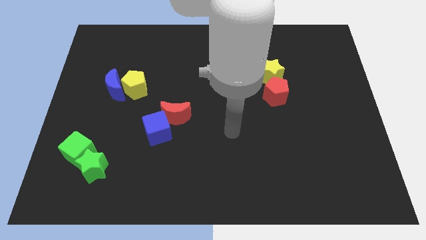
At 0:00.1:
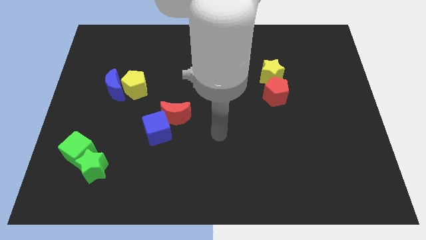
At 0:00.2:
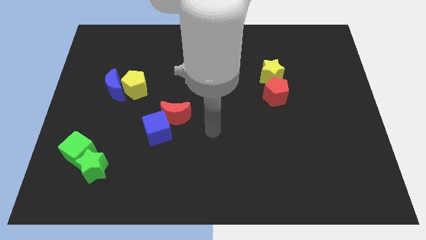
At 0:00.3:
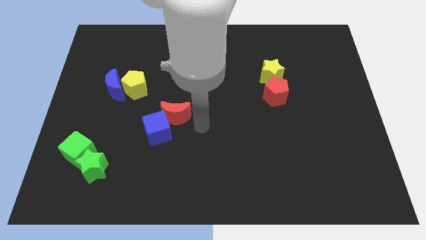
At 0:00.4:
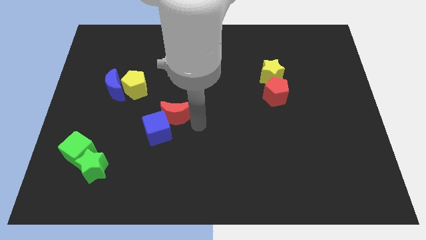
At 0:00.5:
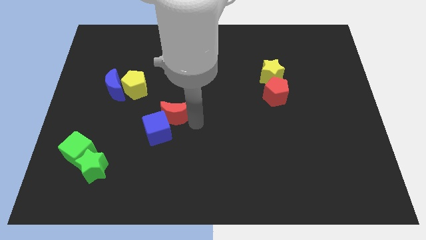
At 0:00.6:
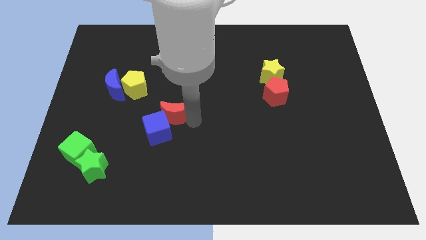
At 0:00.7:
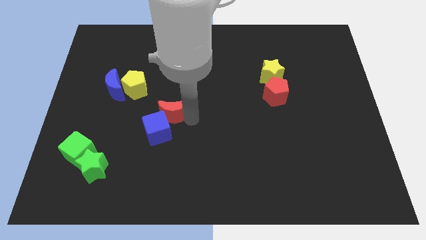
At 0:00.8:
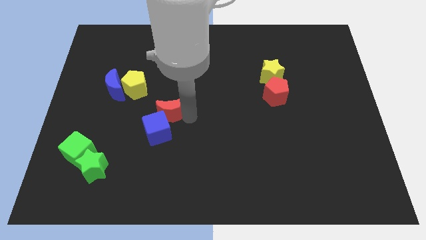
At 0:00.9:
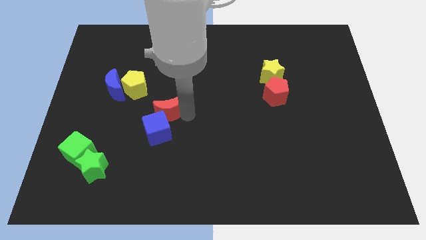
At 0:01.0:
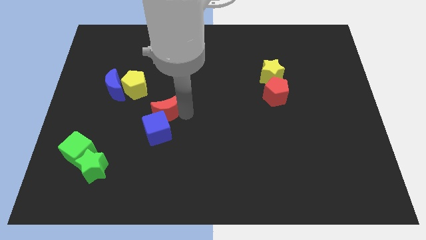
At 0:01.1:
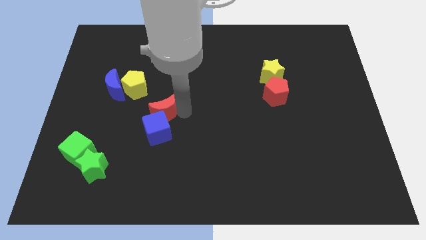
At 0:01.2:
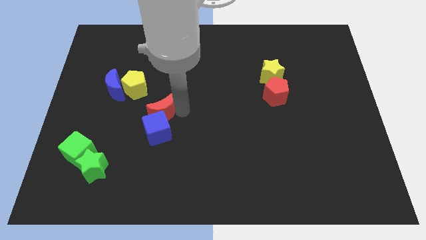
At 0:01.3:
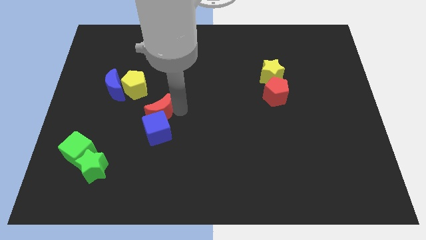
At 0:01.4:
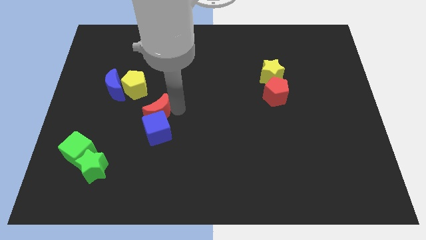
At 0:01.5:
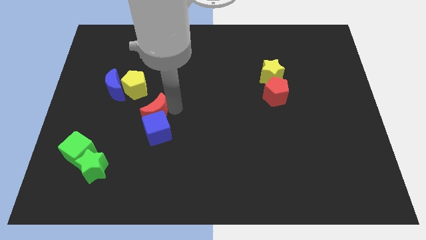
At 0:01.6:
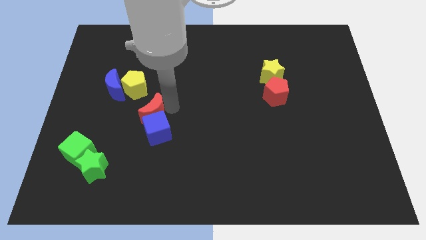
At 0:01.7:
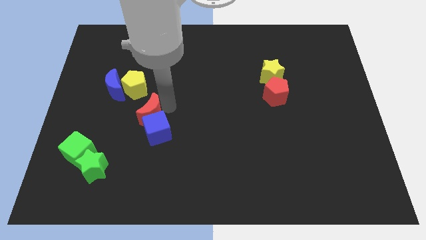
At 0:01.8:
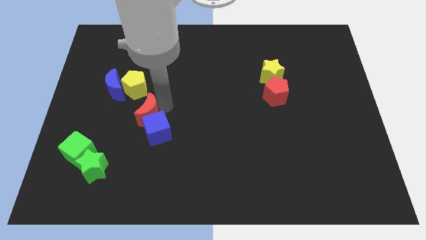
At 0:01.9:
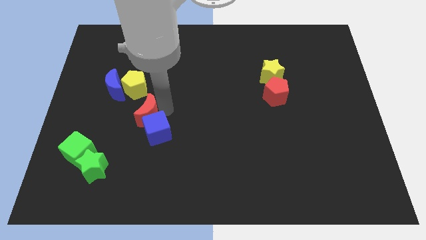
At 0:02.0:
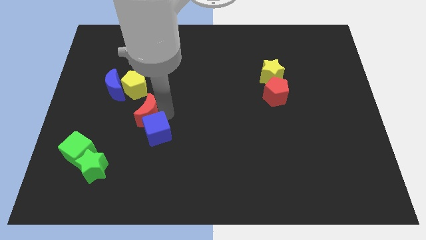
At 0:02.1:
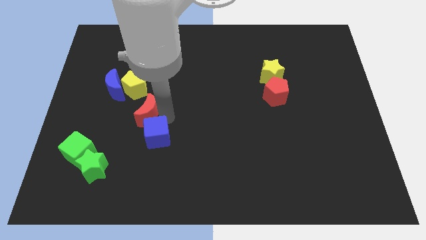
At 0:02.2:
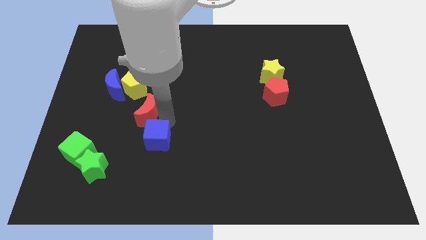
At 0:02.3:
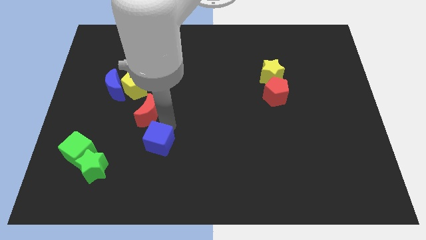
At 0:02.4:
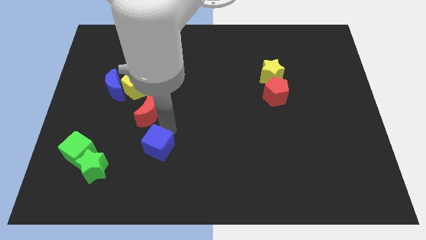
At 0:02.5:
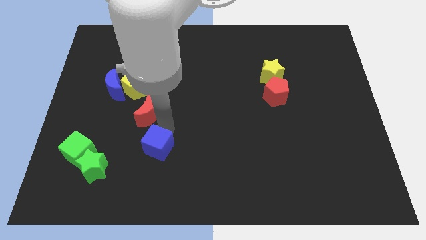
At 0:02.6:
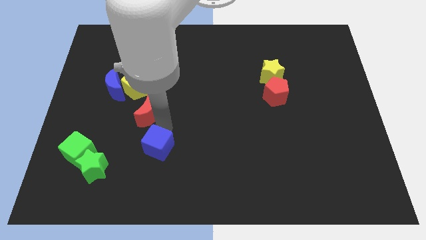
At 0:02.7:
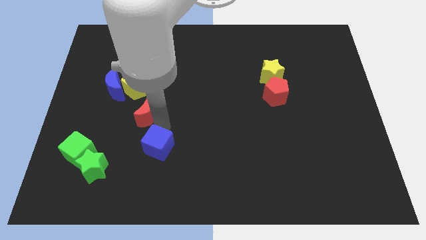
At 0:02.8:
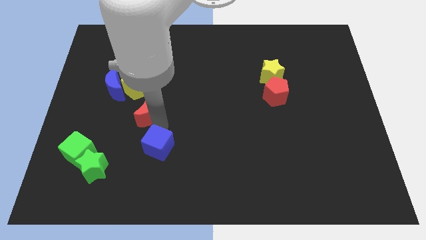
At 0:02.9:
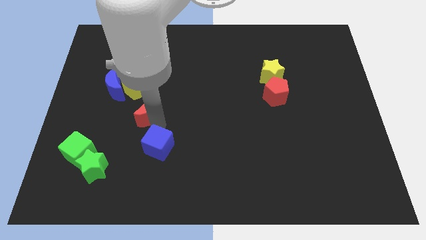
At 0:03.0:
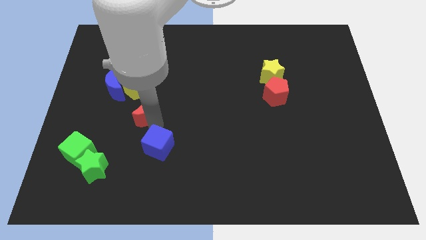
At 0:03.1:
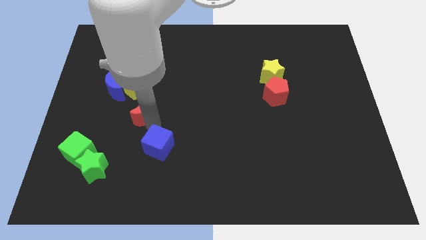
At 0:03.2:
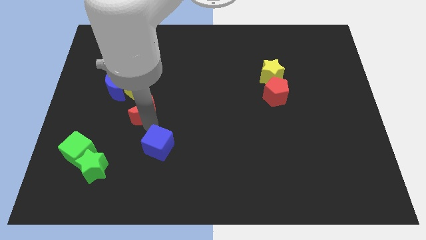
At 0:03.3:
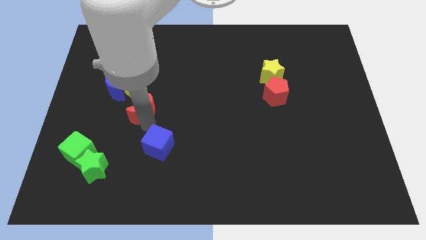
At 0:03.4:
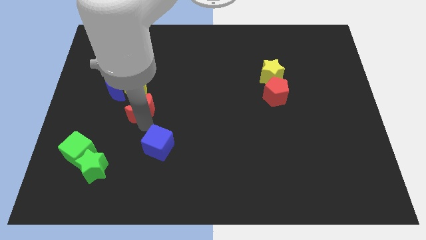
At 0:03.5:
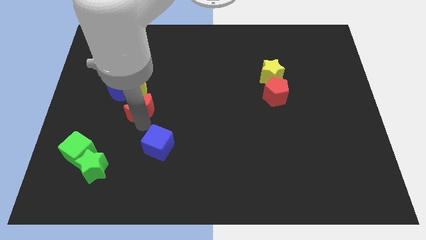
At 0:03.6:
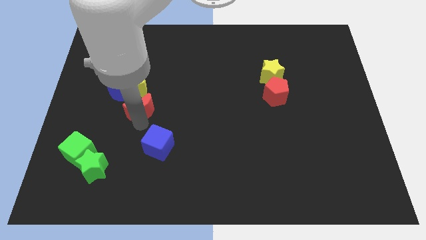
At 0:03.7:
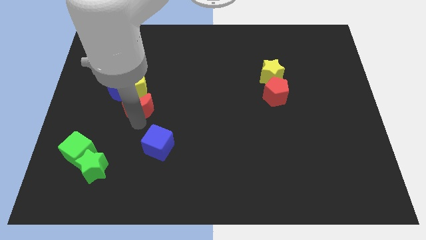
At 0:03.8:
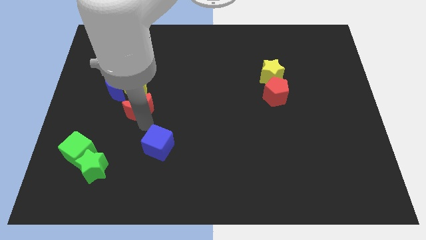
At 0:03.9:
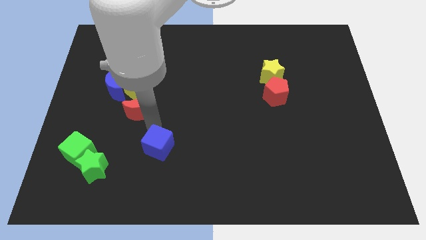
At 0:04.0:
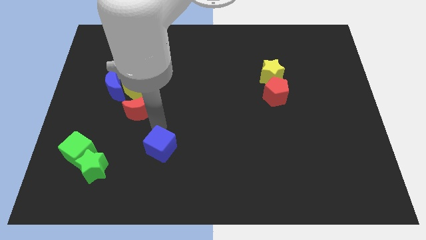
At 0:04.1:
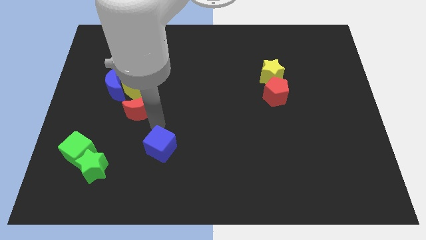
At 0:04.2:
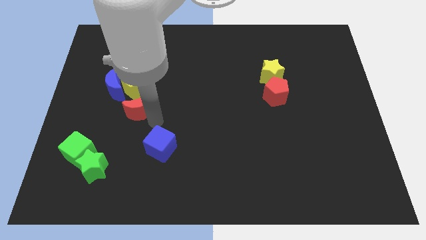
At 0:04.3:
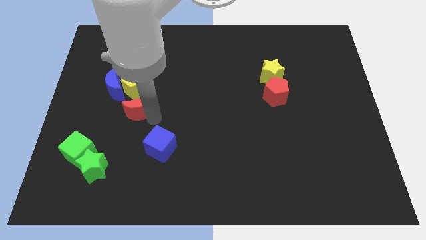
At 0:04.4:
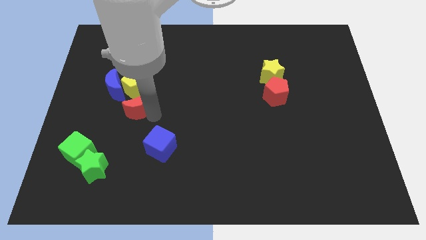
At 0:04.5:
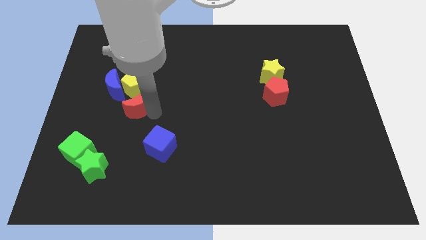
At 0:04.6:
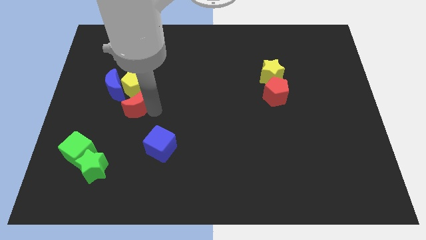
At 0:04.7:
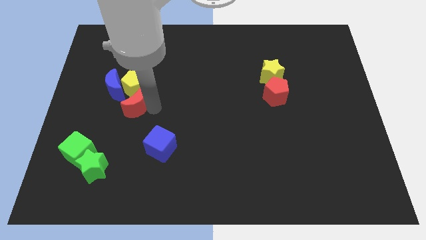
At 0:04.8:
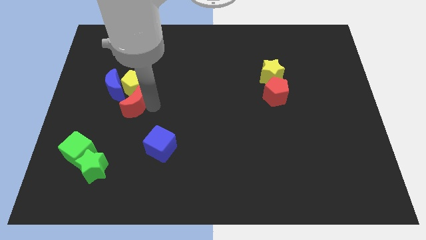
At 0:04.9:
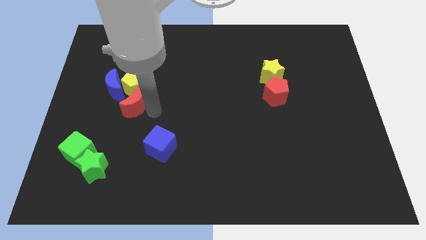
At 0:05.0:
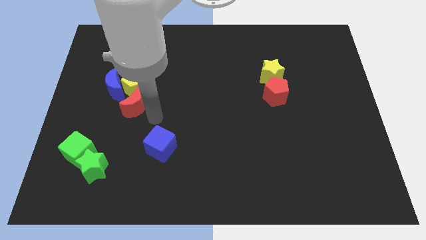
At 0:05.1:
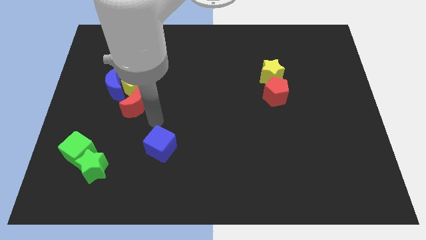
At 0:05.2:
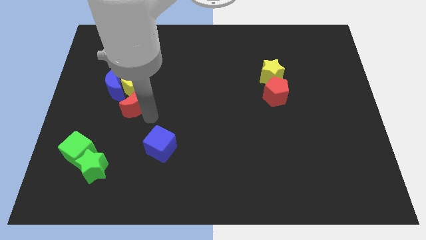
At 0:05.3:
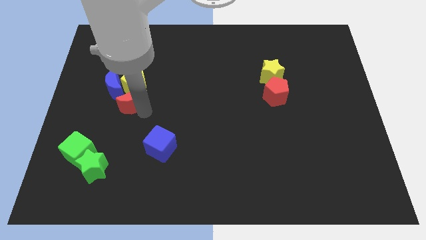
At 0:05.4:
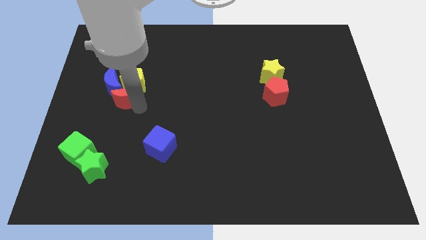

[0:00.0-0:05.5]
slide the red moon close to the blue moon

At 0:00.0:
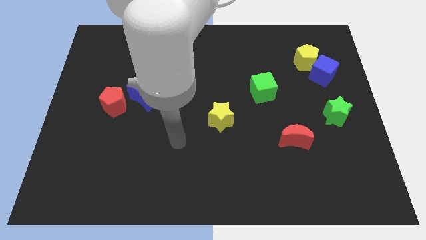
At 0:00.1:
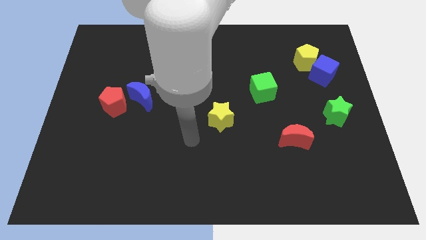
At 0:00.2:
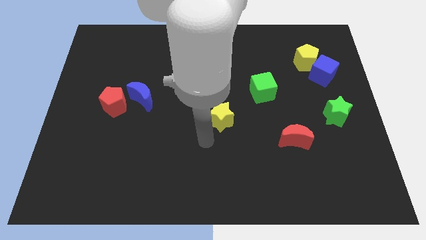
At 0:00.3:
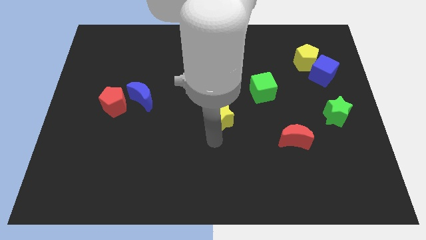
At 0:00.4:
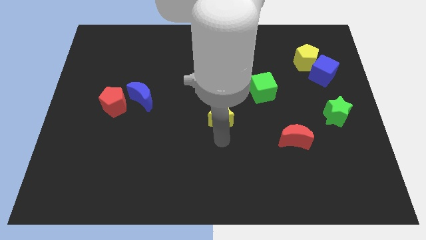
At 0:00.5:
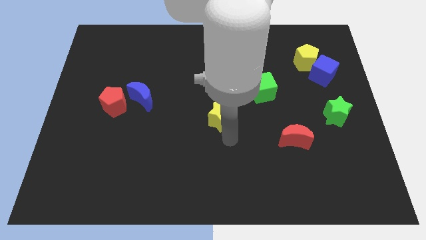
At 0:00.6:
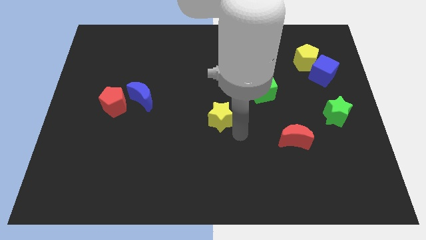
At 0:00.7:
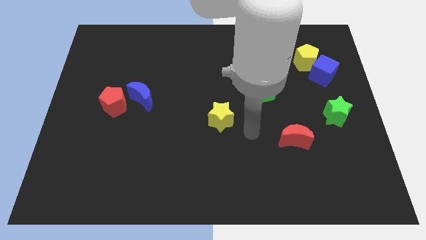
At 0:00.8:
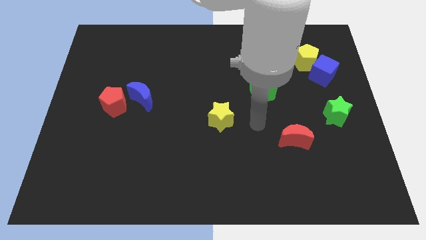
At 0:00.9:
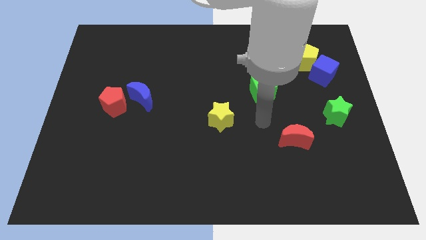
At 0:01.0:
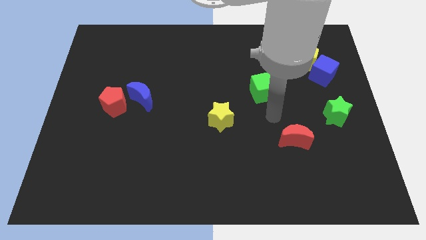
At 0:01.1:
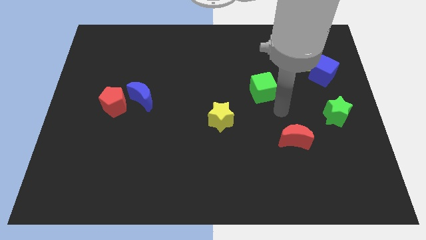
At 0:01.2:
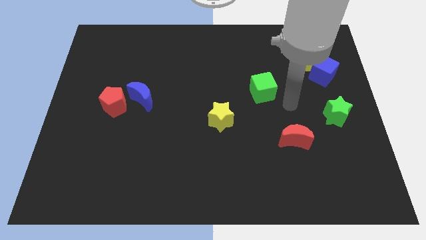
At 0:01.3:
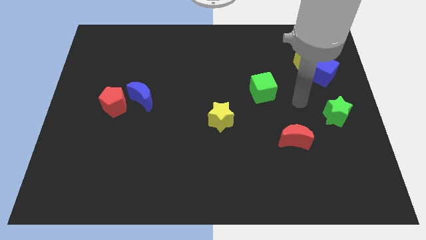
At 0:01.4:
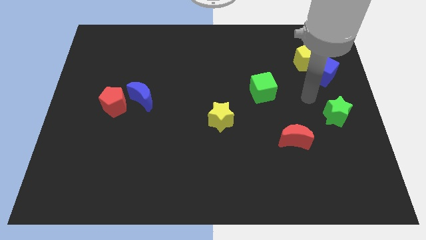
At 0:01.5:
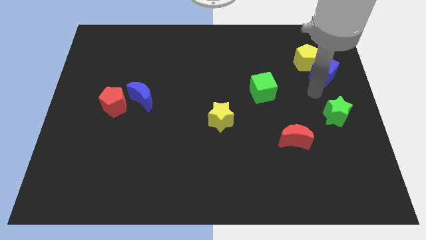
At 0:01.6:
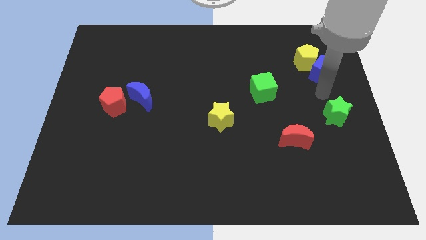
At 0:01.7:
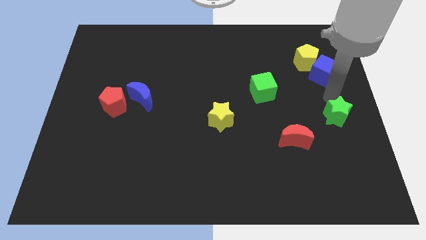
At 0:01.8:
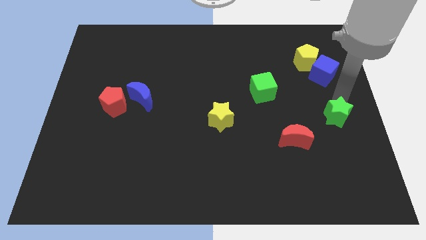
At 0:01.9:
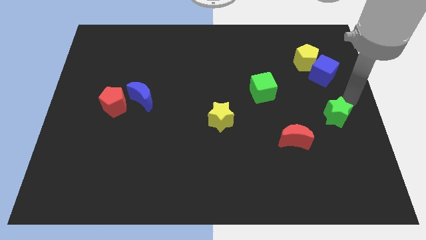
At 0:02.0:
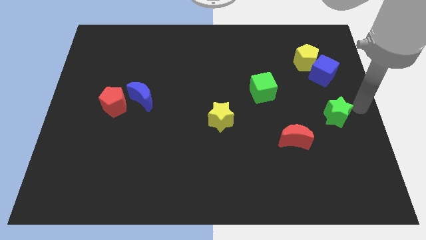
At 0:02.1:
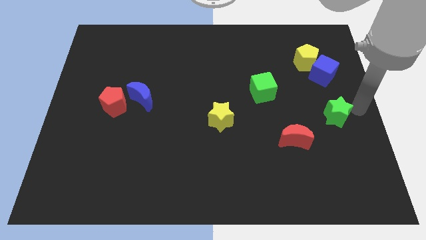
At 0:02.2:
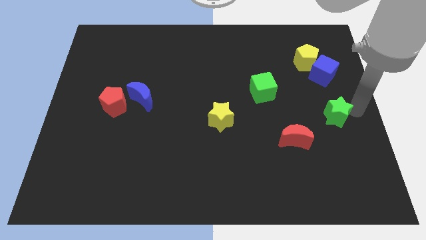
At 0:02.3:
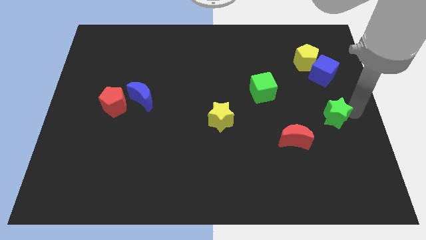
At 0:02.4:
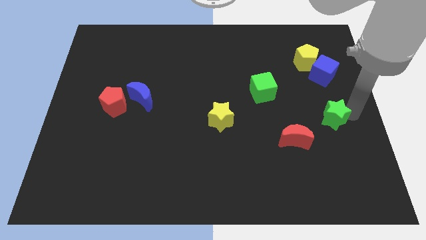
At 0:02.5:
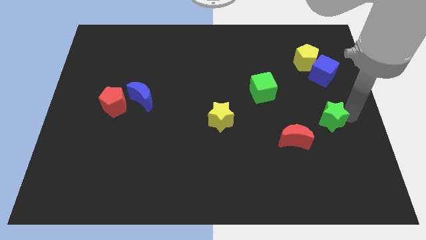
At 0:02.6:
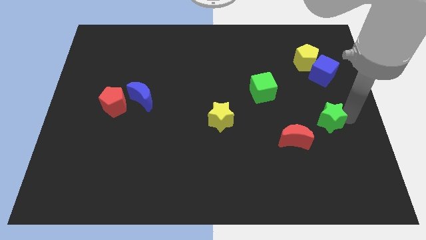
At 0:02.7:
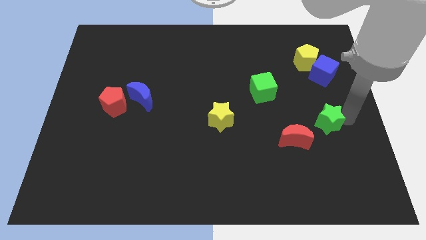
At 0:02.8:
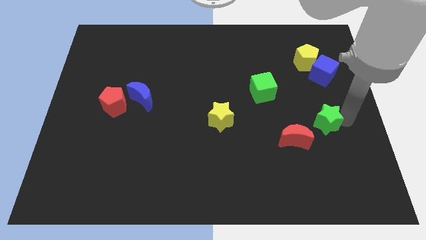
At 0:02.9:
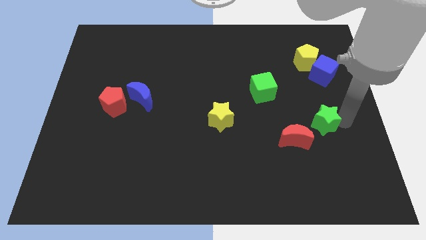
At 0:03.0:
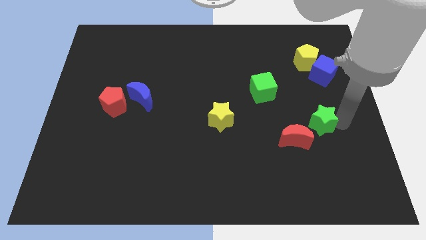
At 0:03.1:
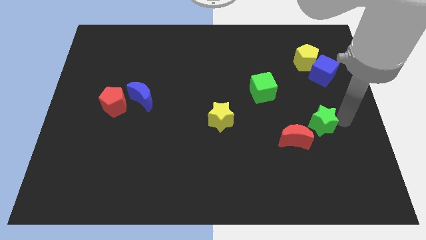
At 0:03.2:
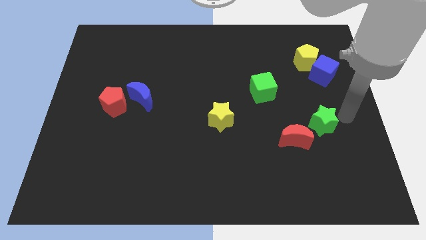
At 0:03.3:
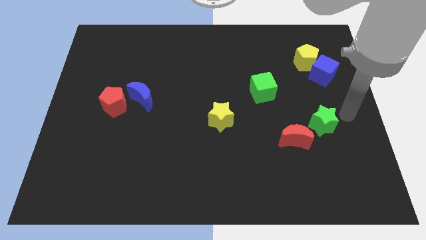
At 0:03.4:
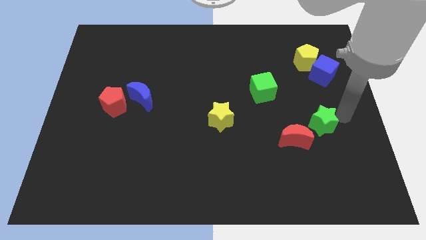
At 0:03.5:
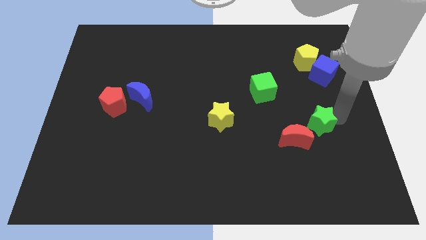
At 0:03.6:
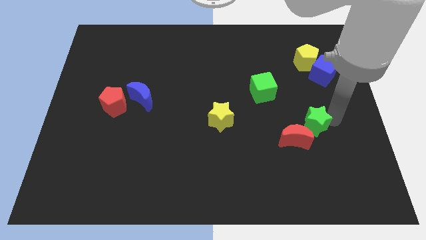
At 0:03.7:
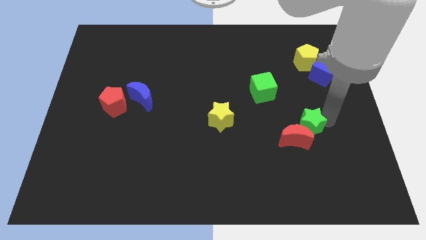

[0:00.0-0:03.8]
slide the green star towards the red moon
